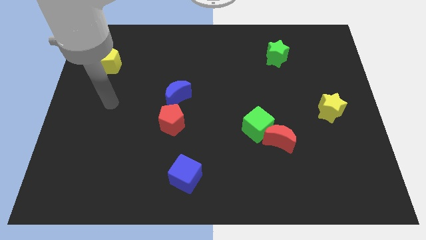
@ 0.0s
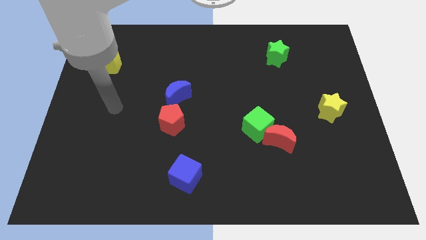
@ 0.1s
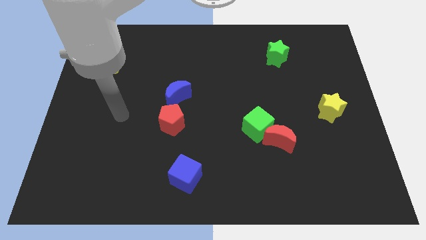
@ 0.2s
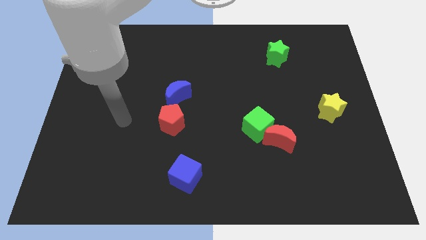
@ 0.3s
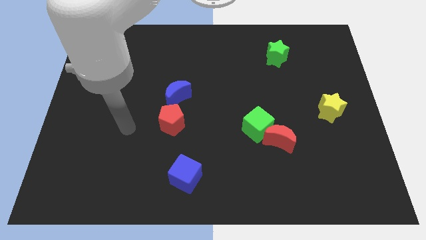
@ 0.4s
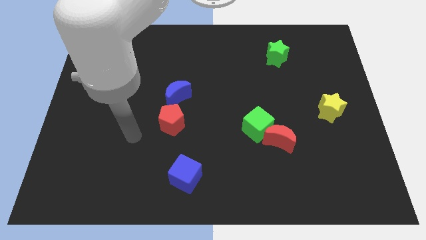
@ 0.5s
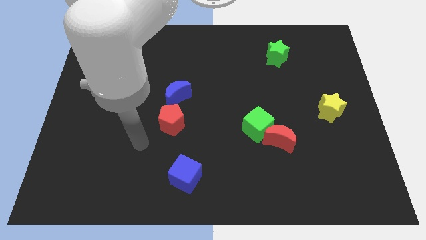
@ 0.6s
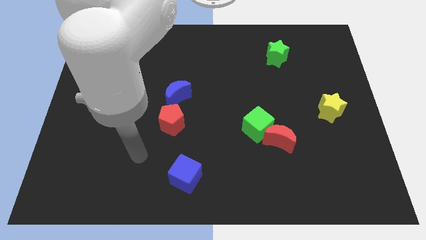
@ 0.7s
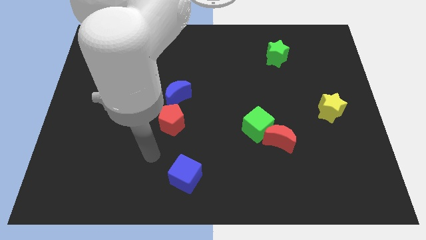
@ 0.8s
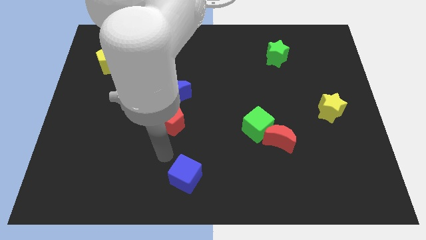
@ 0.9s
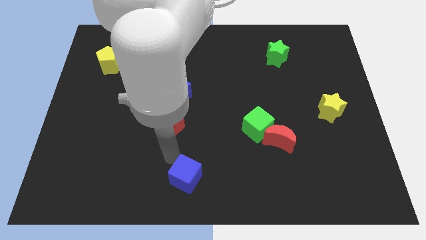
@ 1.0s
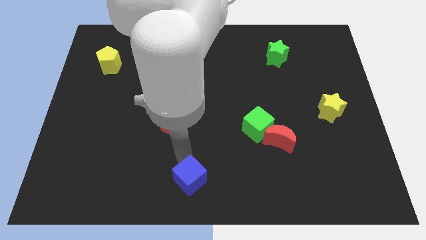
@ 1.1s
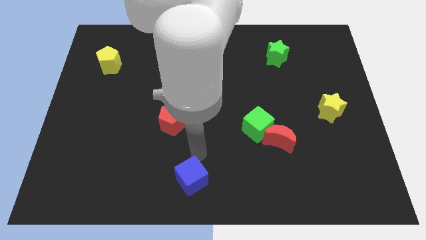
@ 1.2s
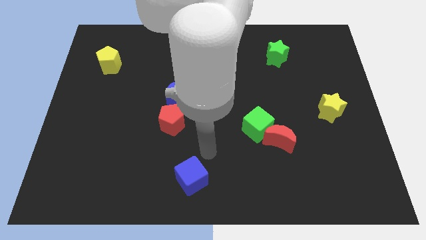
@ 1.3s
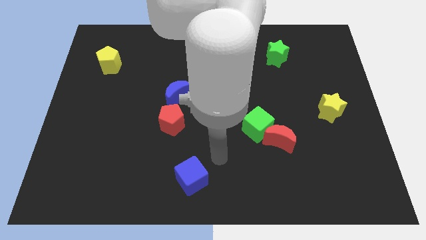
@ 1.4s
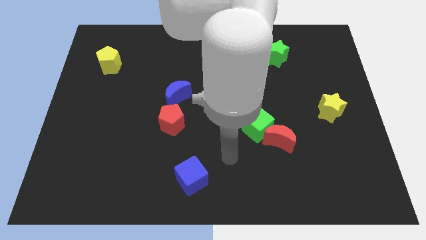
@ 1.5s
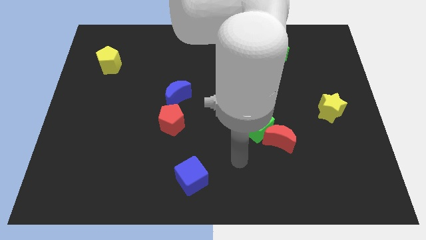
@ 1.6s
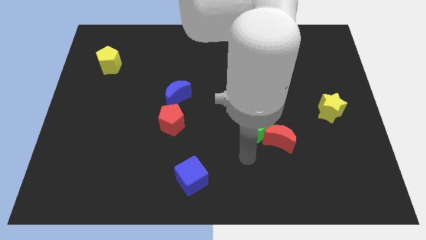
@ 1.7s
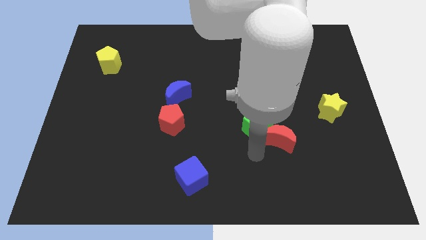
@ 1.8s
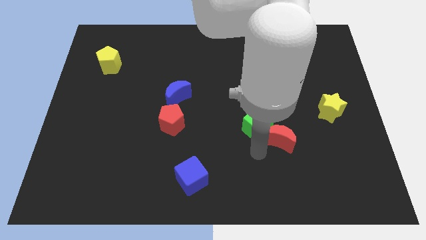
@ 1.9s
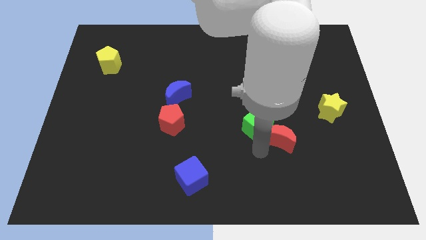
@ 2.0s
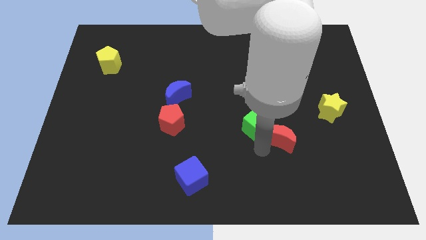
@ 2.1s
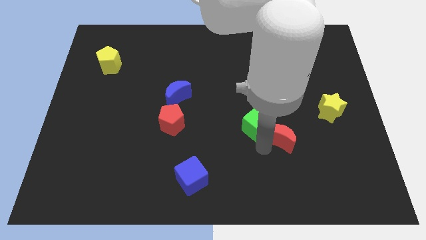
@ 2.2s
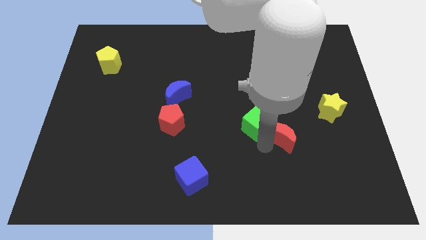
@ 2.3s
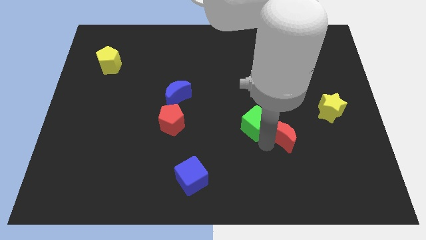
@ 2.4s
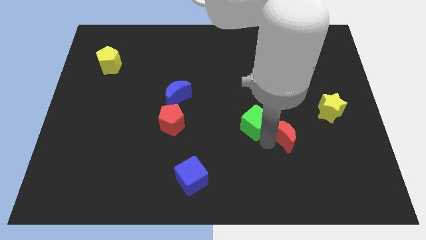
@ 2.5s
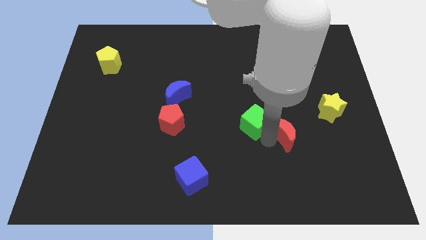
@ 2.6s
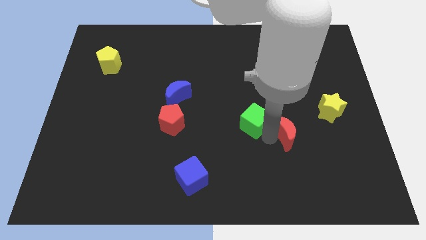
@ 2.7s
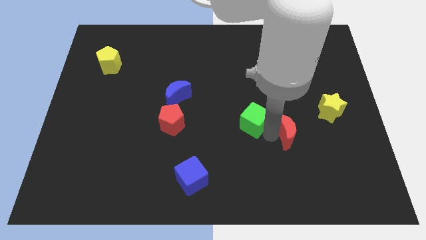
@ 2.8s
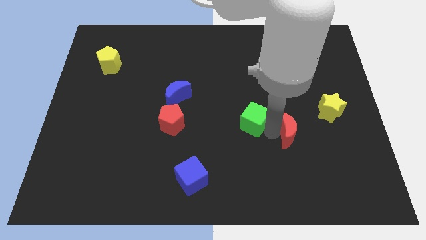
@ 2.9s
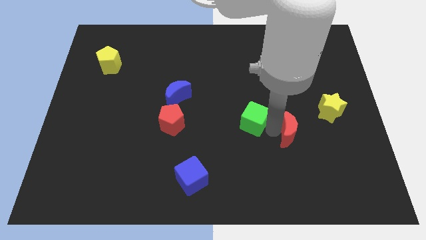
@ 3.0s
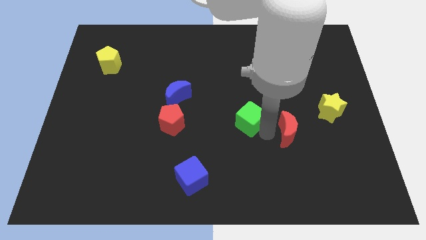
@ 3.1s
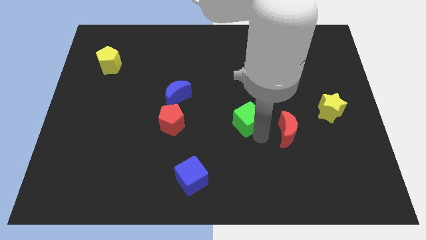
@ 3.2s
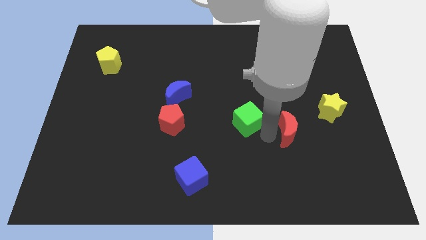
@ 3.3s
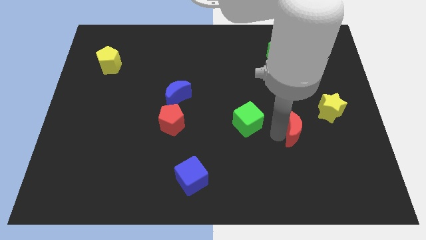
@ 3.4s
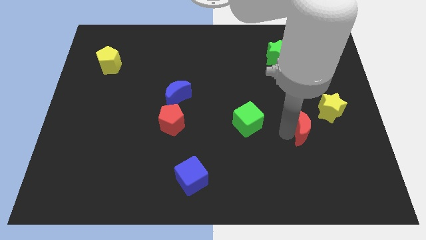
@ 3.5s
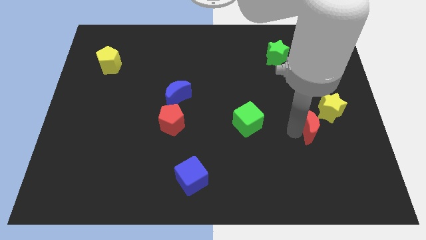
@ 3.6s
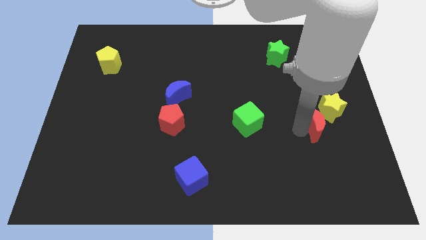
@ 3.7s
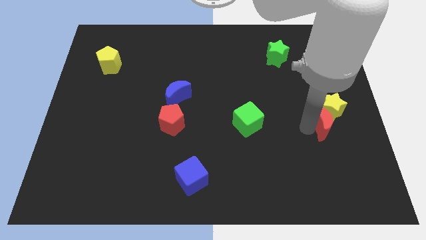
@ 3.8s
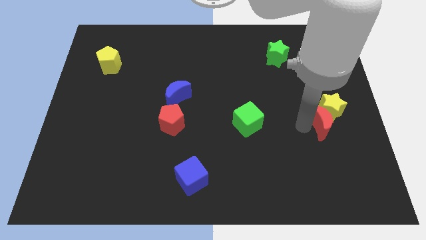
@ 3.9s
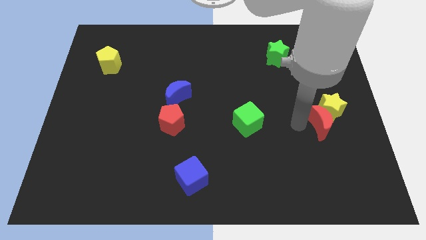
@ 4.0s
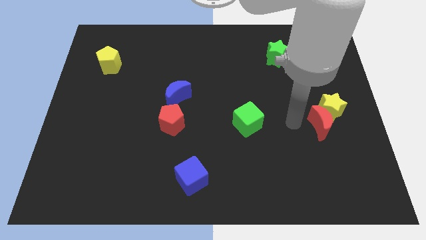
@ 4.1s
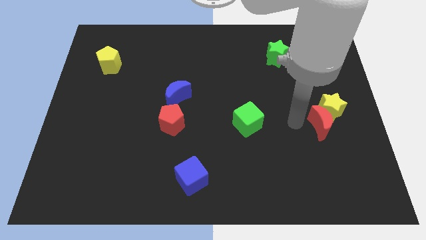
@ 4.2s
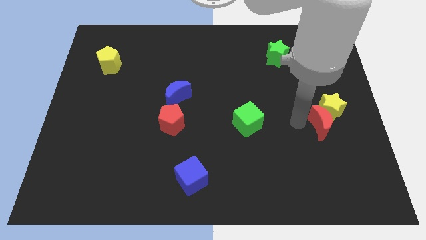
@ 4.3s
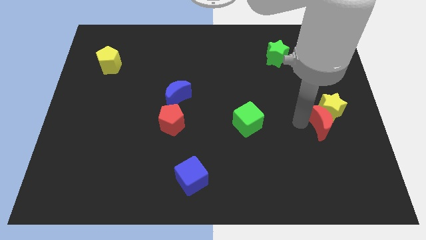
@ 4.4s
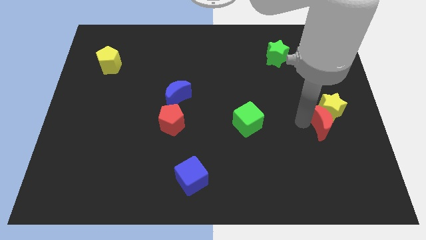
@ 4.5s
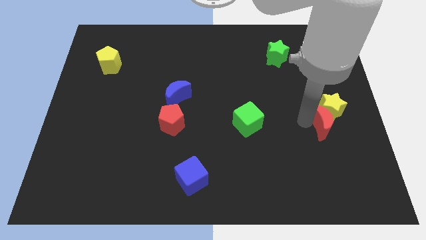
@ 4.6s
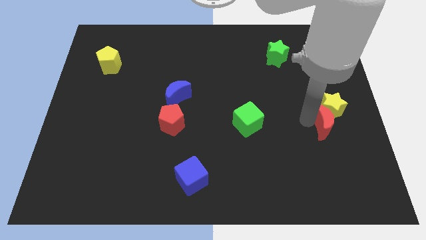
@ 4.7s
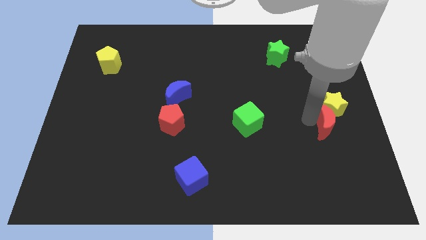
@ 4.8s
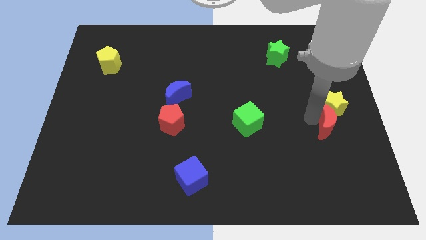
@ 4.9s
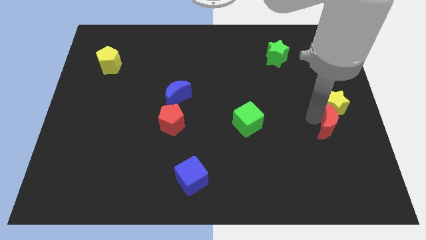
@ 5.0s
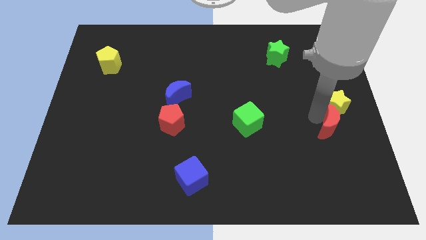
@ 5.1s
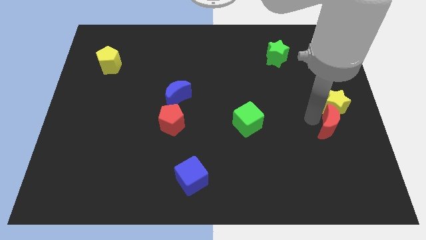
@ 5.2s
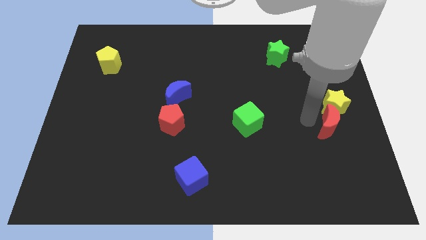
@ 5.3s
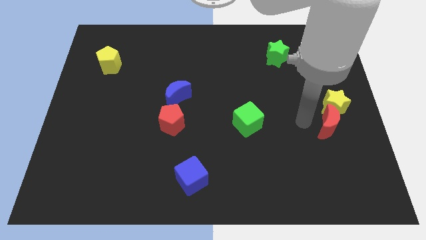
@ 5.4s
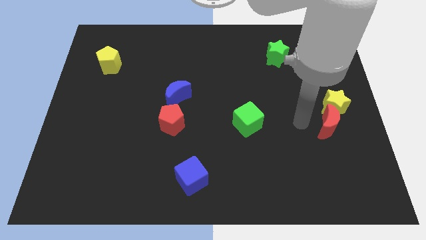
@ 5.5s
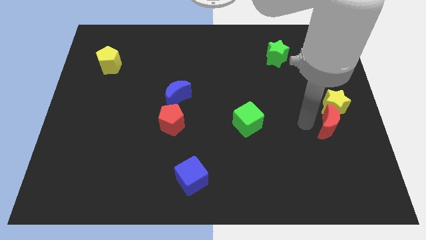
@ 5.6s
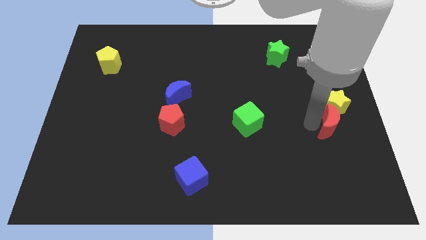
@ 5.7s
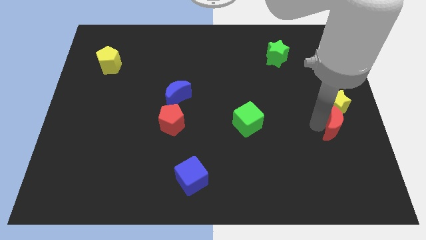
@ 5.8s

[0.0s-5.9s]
push the red moon to the right side of the board
